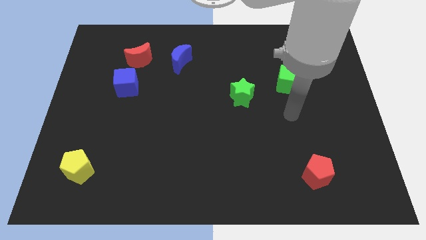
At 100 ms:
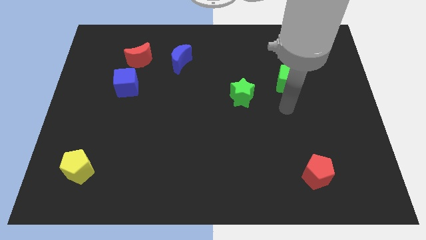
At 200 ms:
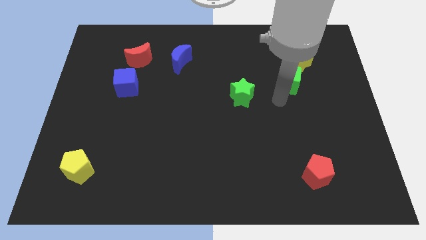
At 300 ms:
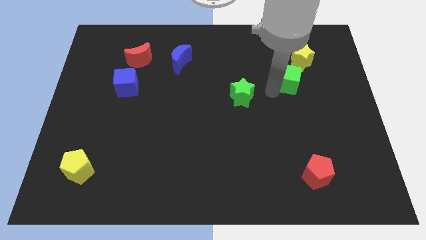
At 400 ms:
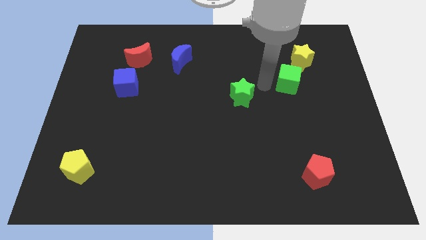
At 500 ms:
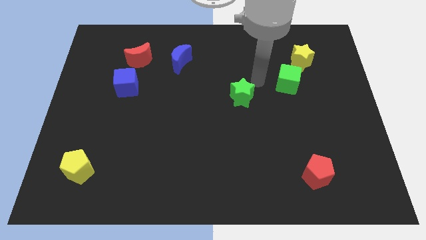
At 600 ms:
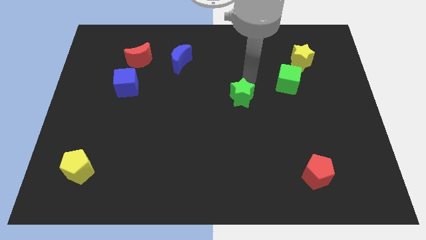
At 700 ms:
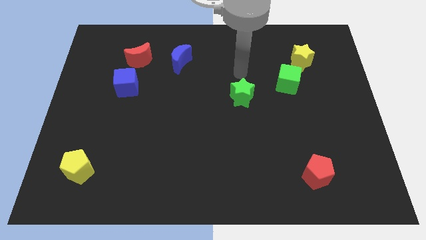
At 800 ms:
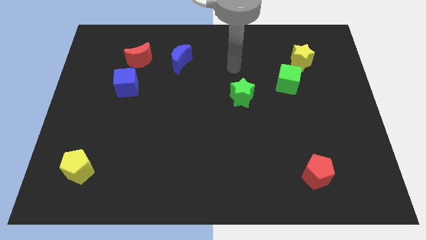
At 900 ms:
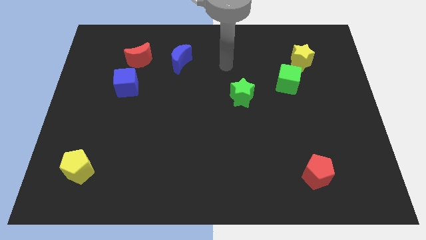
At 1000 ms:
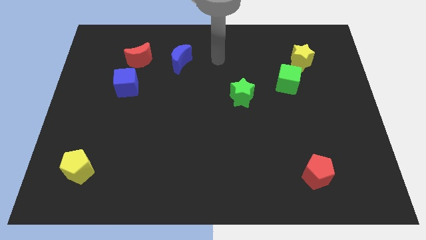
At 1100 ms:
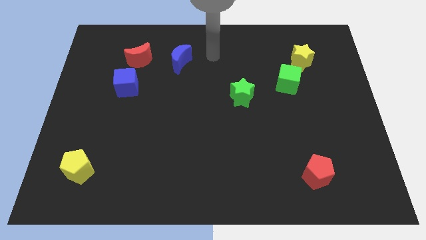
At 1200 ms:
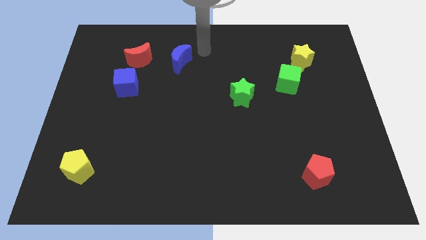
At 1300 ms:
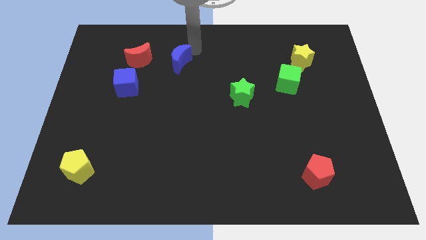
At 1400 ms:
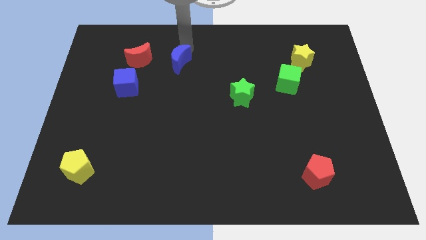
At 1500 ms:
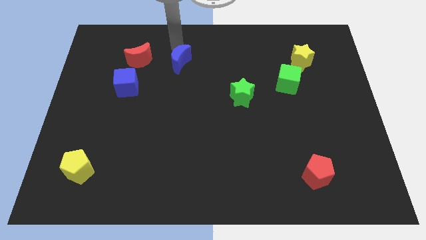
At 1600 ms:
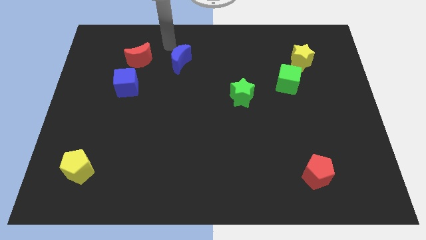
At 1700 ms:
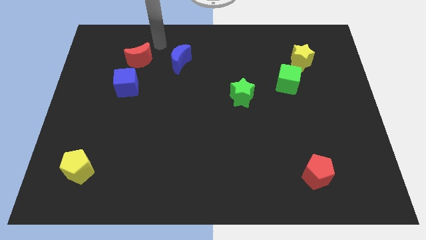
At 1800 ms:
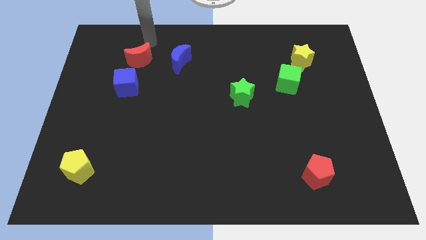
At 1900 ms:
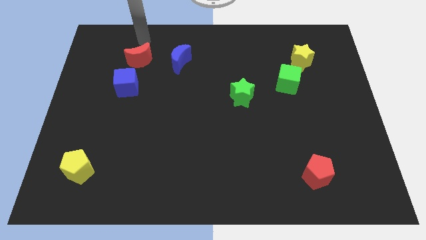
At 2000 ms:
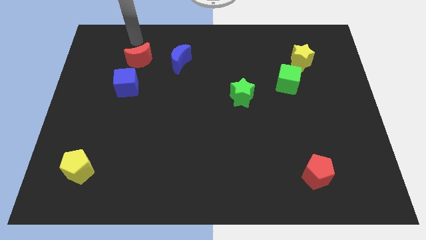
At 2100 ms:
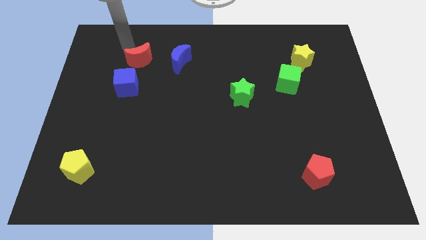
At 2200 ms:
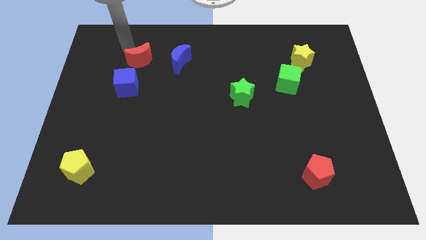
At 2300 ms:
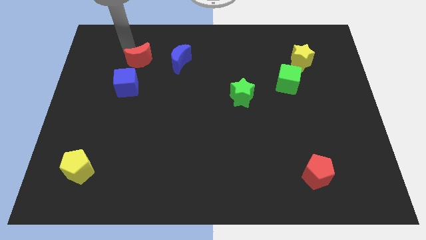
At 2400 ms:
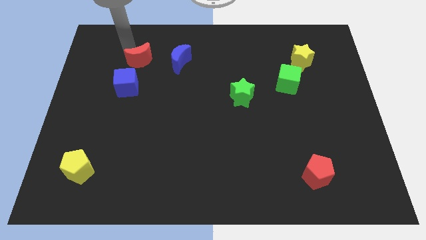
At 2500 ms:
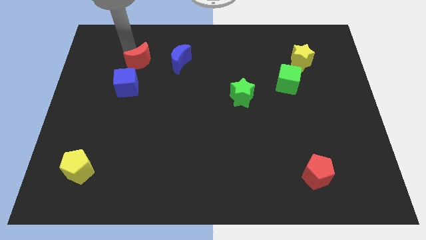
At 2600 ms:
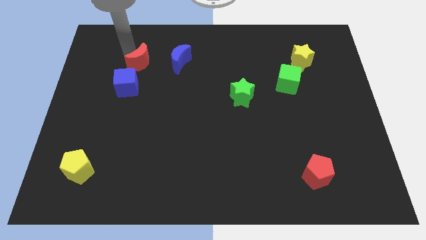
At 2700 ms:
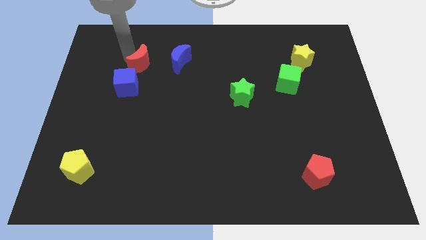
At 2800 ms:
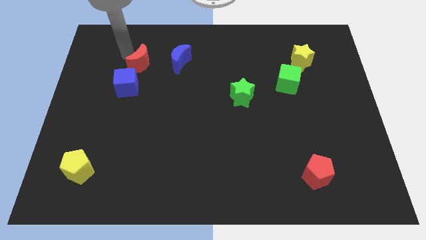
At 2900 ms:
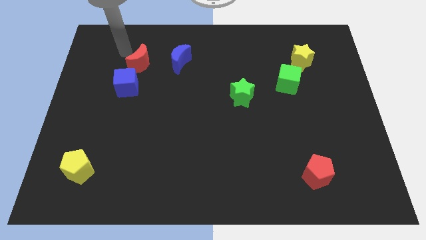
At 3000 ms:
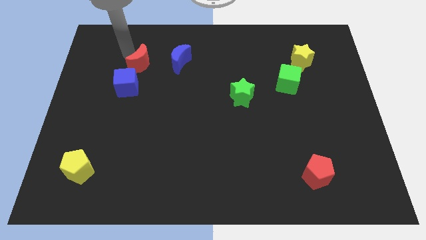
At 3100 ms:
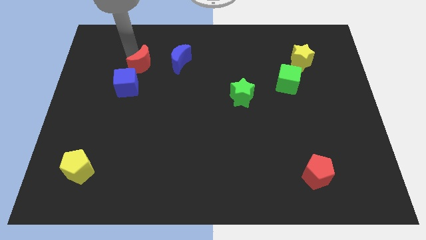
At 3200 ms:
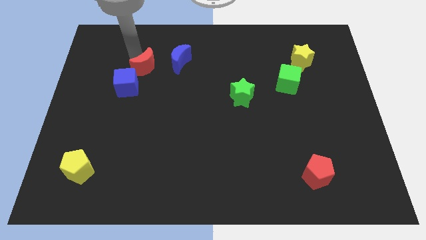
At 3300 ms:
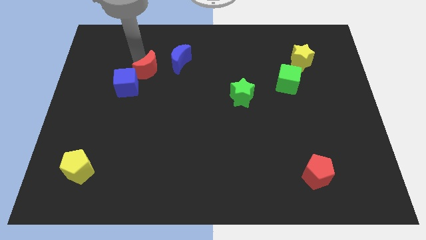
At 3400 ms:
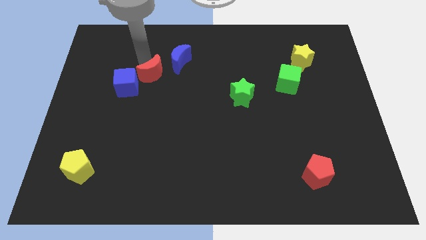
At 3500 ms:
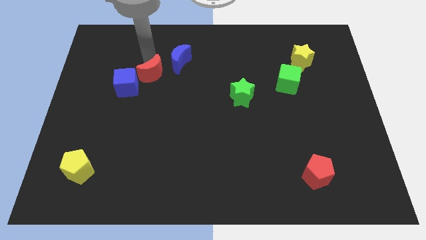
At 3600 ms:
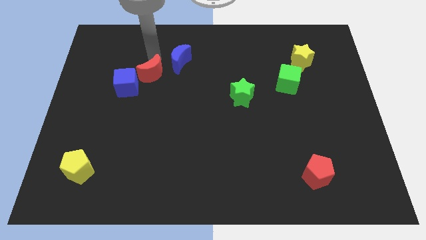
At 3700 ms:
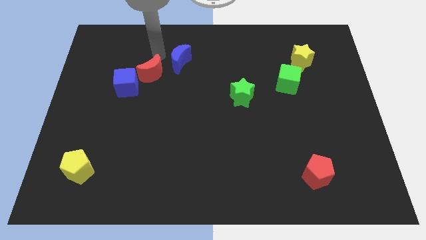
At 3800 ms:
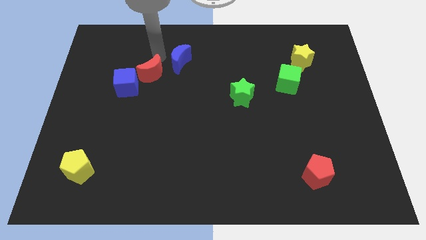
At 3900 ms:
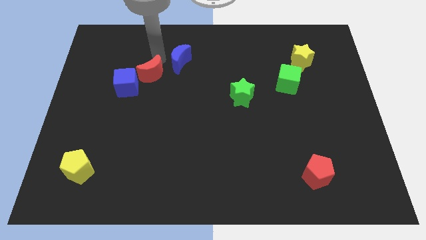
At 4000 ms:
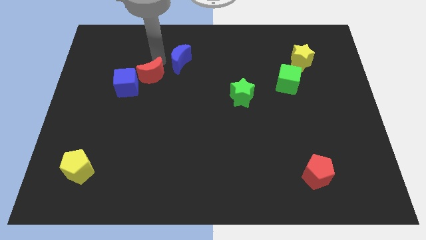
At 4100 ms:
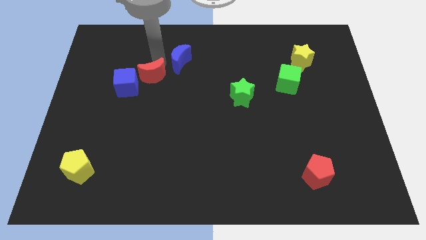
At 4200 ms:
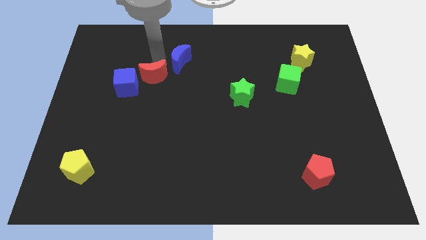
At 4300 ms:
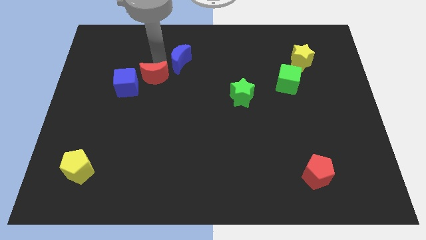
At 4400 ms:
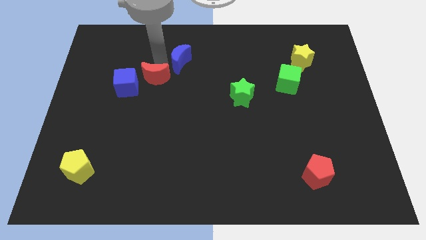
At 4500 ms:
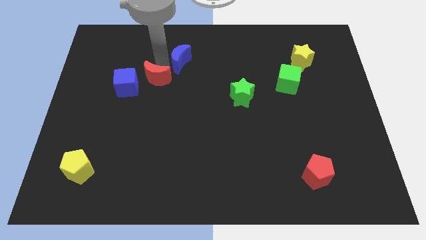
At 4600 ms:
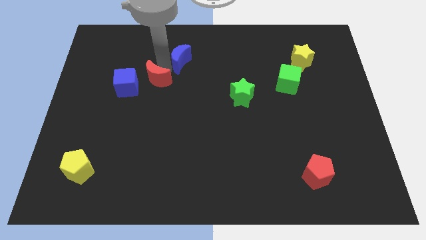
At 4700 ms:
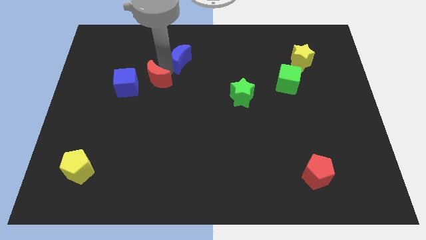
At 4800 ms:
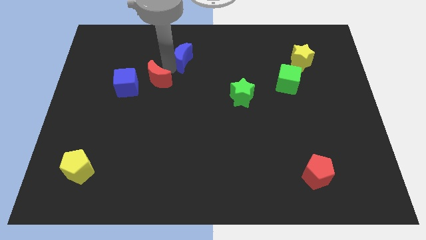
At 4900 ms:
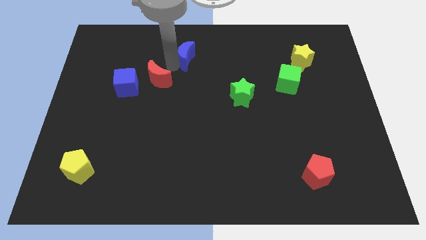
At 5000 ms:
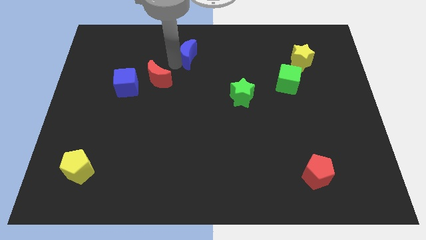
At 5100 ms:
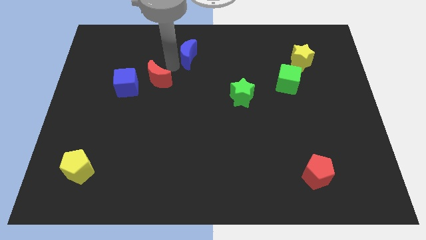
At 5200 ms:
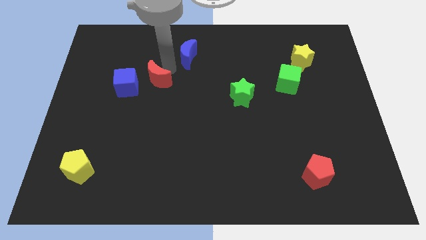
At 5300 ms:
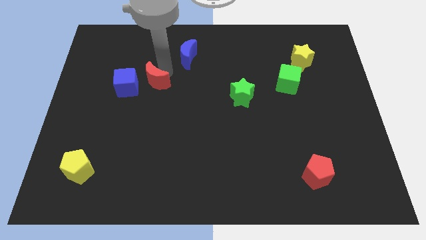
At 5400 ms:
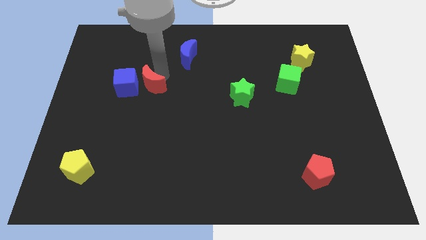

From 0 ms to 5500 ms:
slightly push the red moon downwards

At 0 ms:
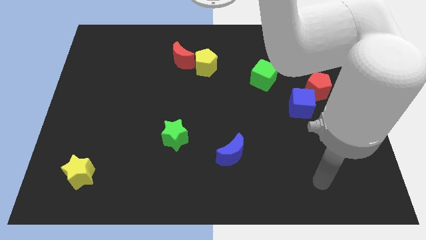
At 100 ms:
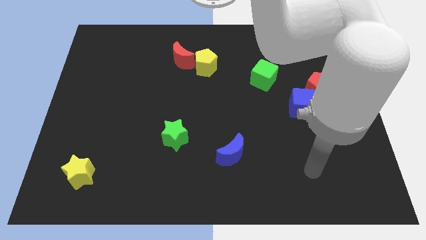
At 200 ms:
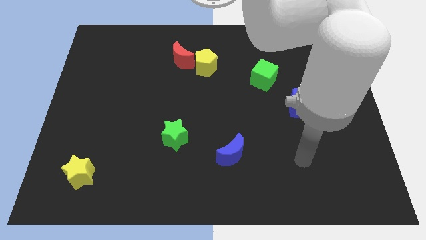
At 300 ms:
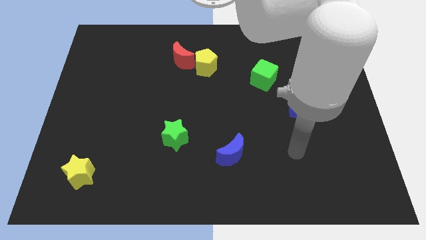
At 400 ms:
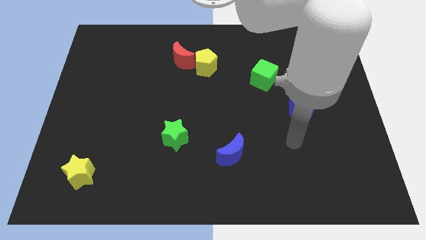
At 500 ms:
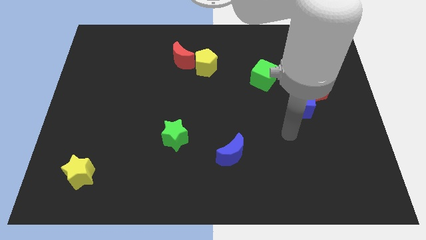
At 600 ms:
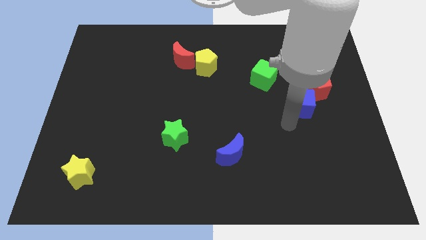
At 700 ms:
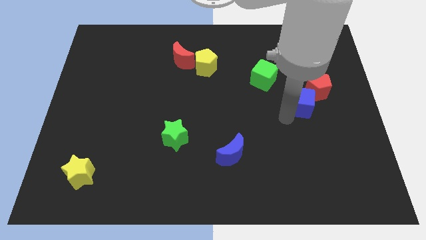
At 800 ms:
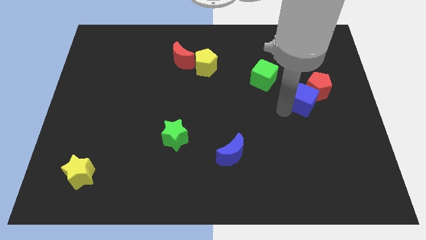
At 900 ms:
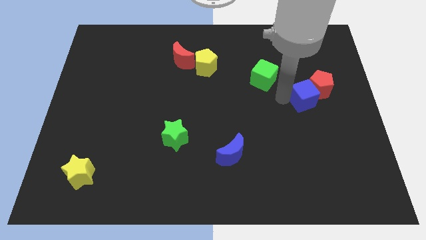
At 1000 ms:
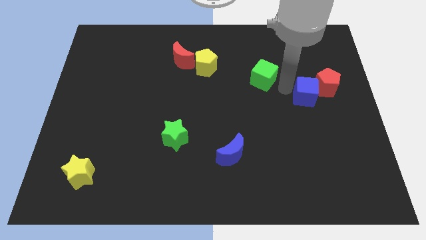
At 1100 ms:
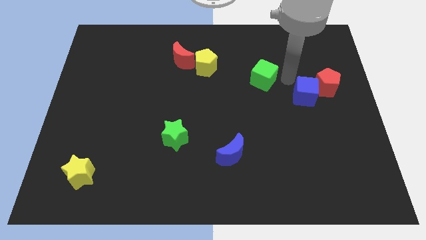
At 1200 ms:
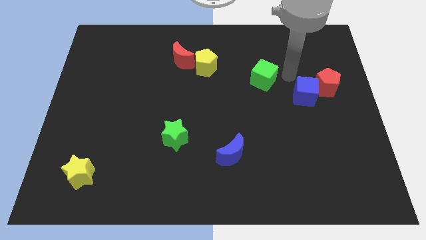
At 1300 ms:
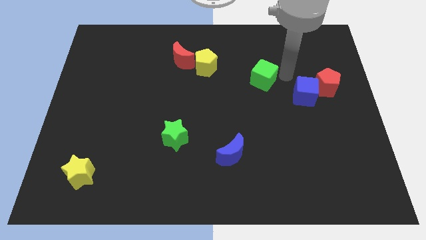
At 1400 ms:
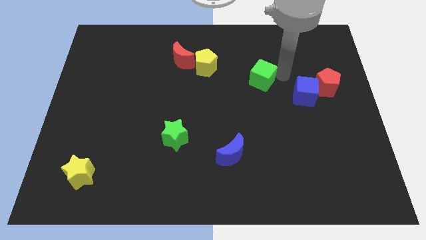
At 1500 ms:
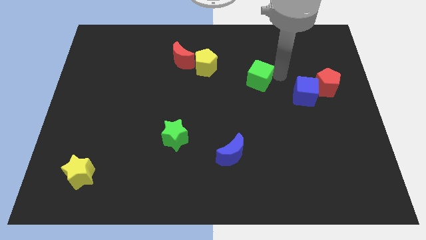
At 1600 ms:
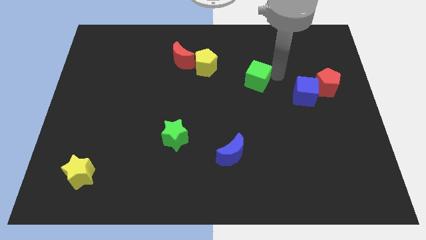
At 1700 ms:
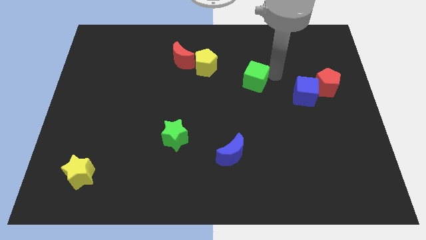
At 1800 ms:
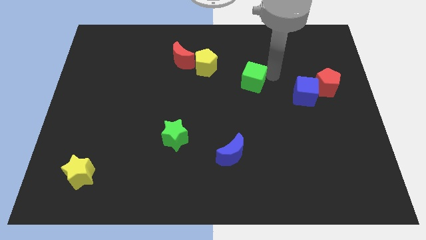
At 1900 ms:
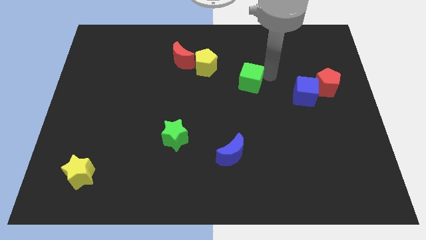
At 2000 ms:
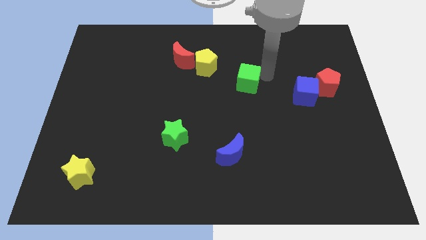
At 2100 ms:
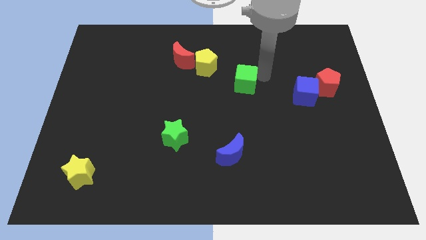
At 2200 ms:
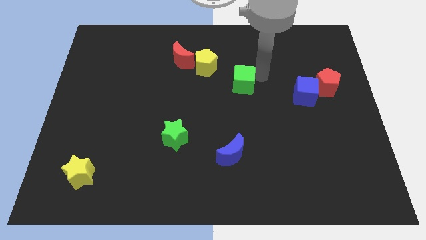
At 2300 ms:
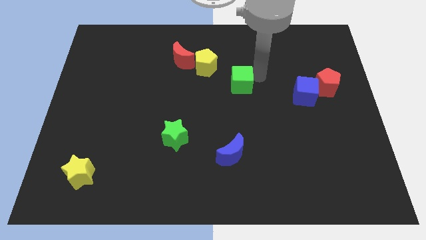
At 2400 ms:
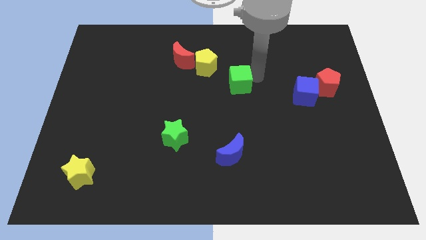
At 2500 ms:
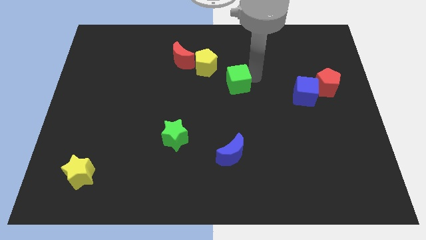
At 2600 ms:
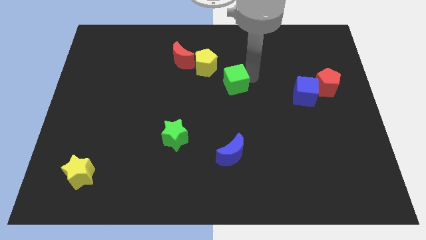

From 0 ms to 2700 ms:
slightly push the green cube left

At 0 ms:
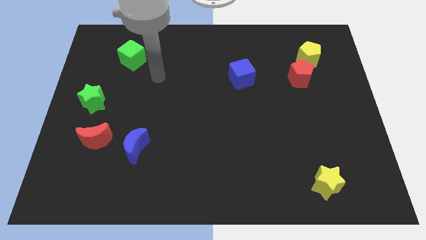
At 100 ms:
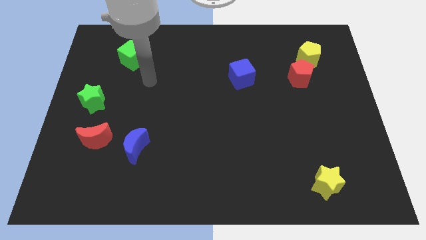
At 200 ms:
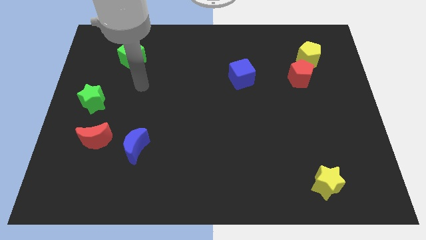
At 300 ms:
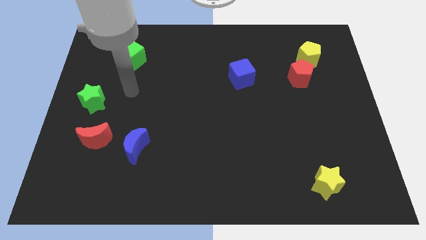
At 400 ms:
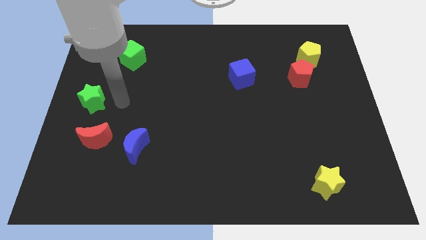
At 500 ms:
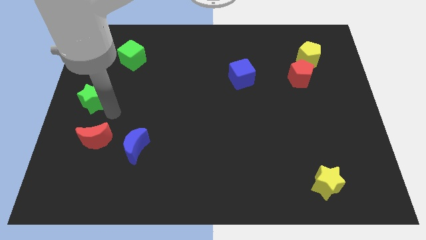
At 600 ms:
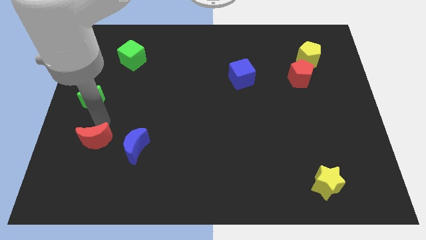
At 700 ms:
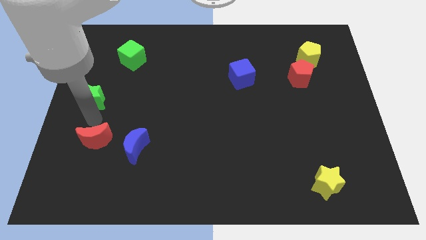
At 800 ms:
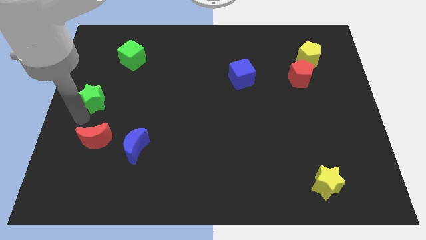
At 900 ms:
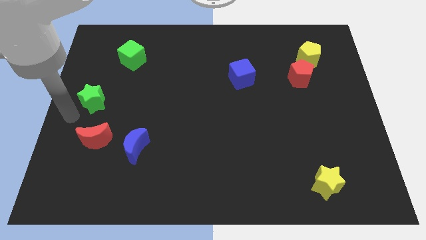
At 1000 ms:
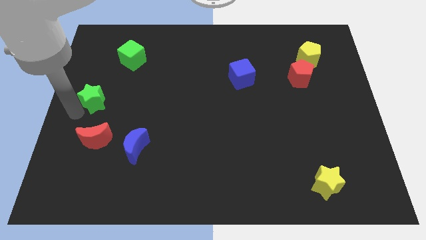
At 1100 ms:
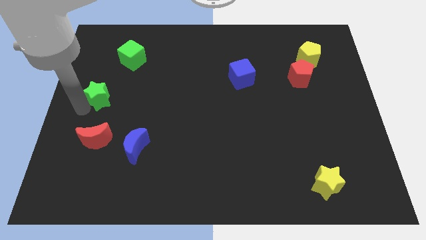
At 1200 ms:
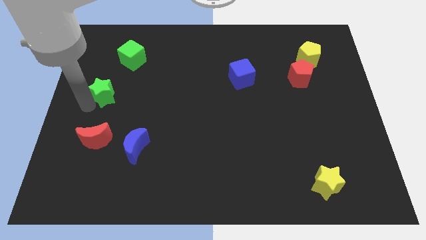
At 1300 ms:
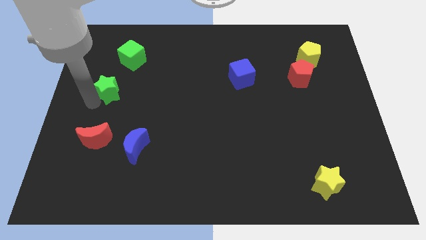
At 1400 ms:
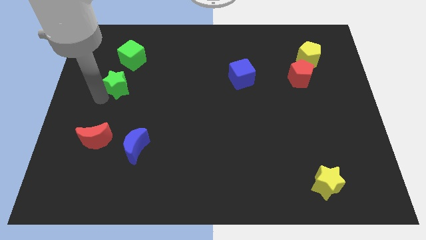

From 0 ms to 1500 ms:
slide the green star diagonally up and to the right slightly
